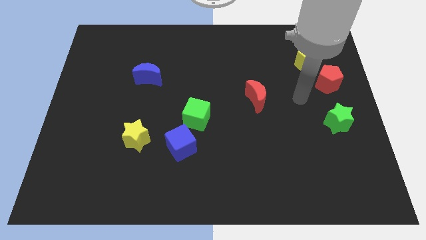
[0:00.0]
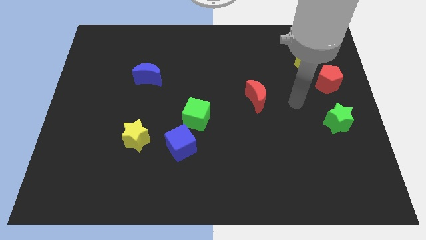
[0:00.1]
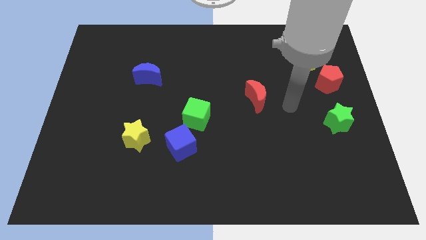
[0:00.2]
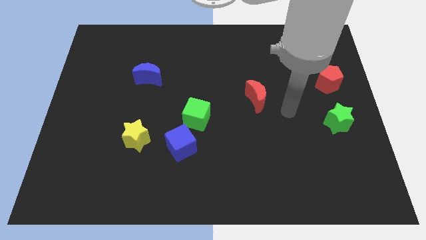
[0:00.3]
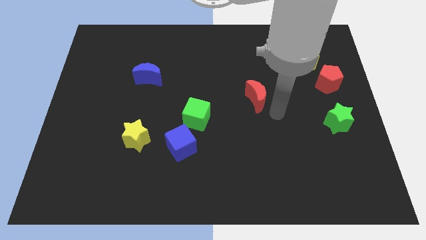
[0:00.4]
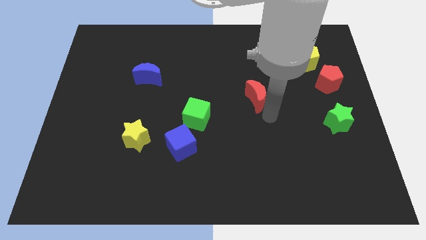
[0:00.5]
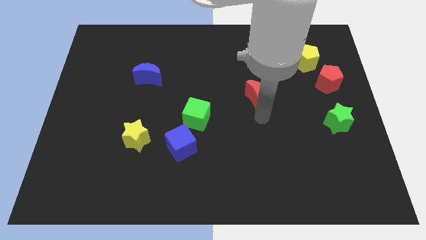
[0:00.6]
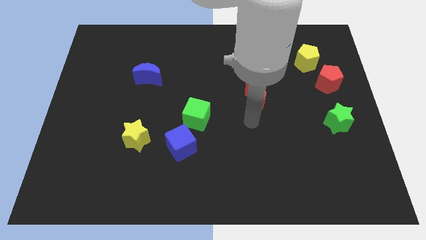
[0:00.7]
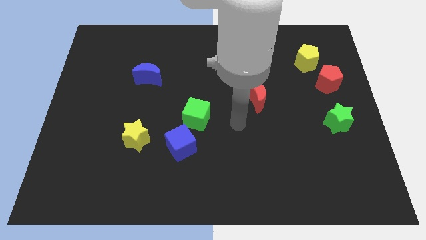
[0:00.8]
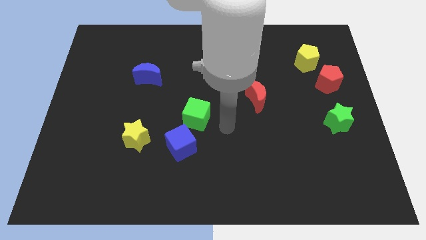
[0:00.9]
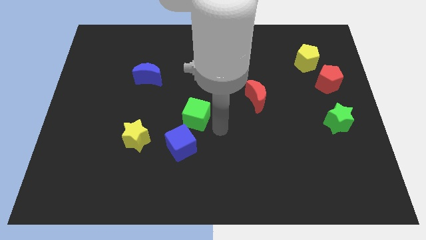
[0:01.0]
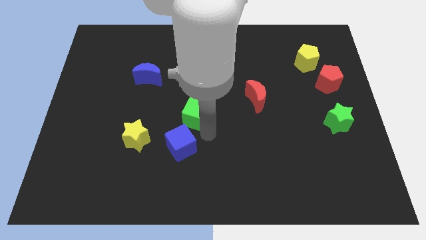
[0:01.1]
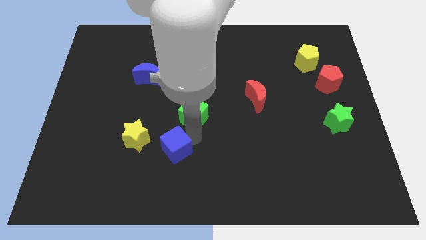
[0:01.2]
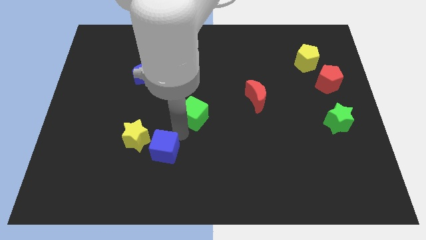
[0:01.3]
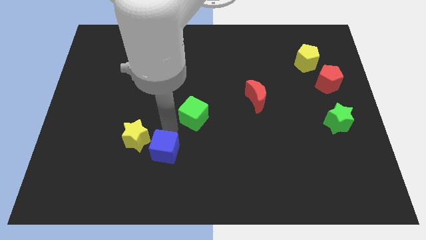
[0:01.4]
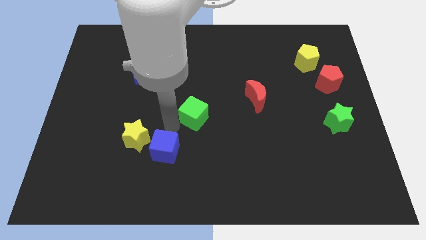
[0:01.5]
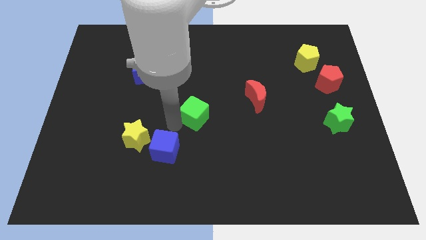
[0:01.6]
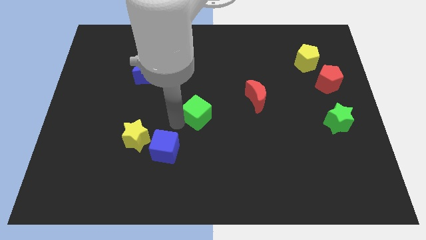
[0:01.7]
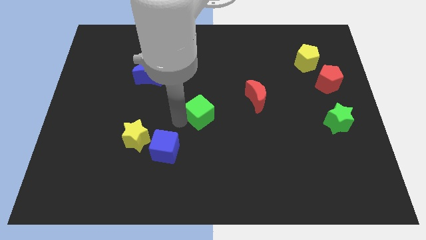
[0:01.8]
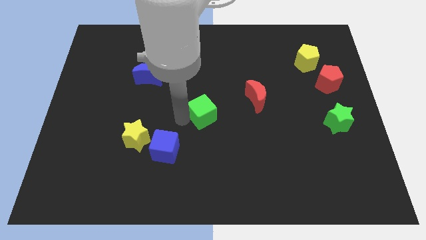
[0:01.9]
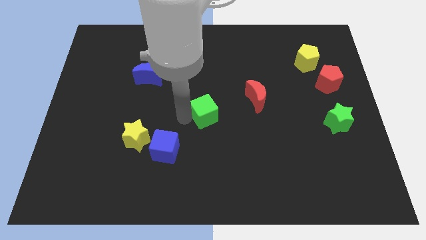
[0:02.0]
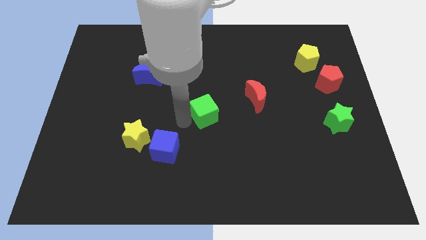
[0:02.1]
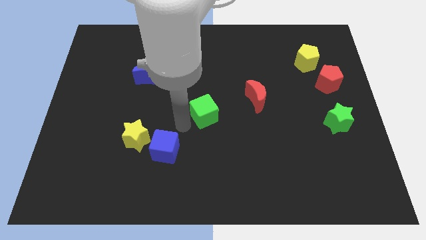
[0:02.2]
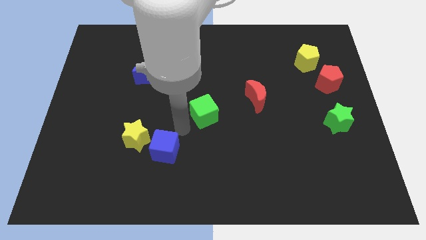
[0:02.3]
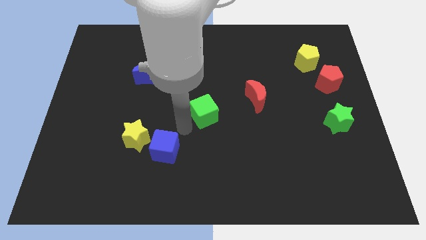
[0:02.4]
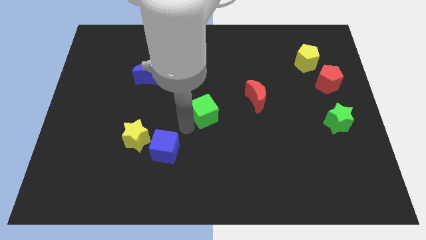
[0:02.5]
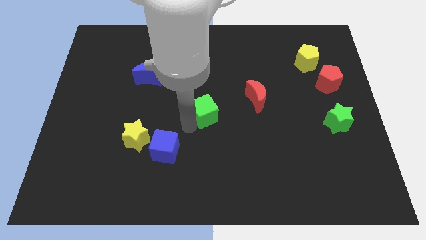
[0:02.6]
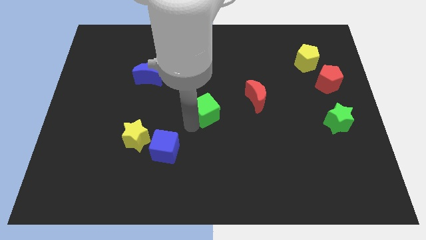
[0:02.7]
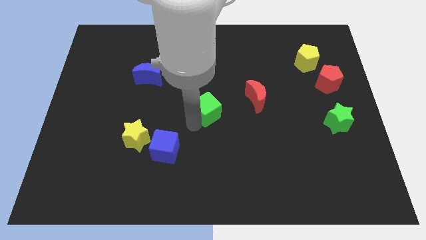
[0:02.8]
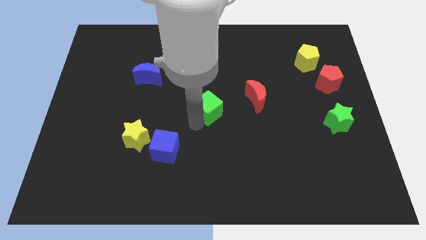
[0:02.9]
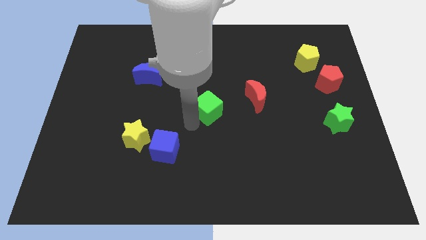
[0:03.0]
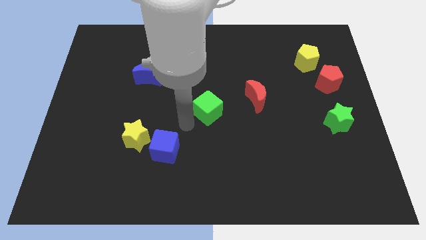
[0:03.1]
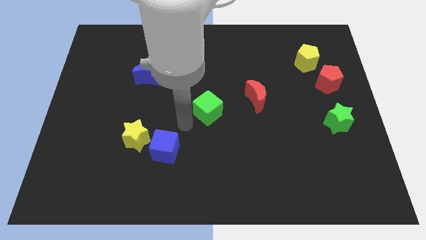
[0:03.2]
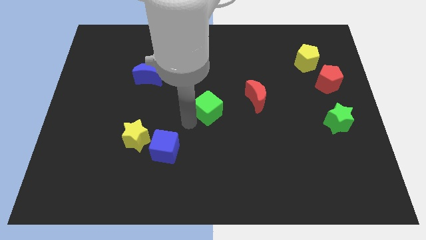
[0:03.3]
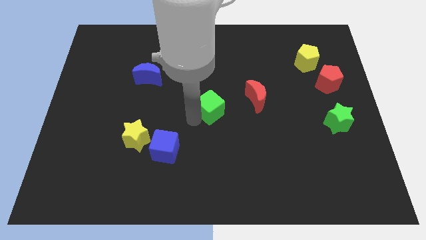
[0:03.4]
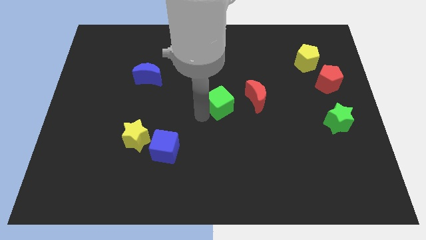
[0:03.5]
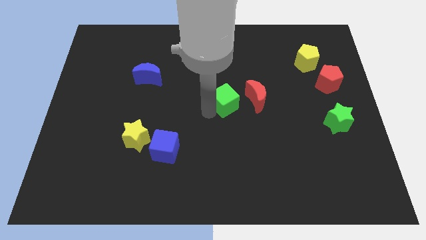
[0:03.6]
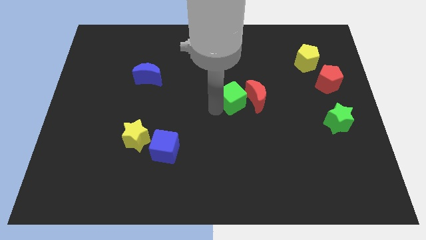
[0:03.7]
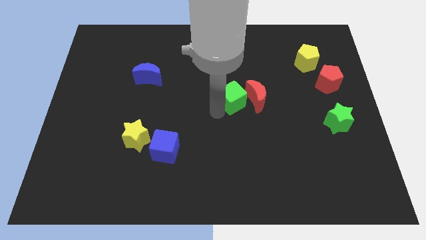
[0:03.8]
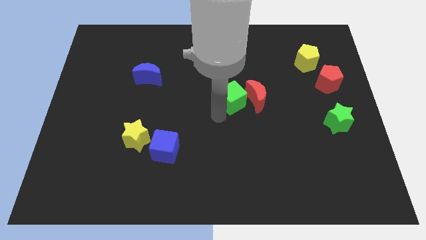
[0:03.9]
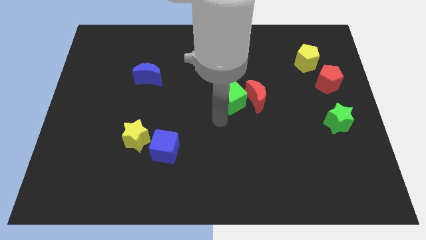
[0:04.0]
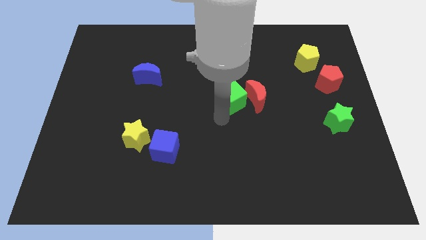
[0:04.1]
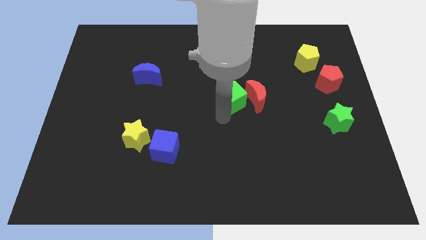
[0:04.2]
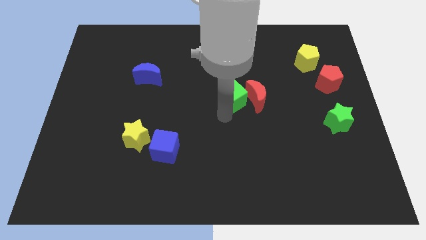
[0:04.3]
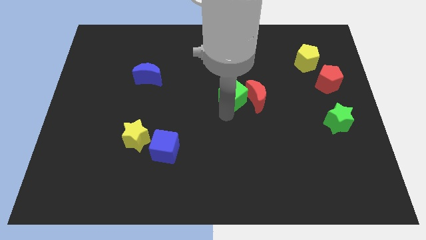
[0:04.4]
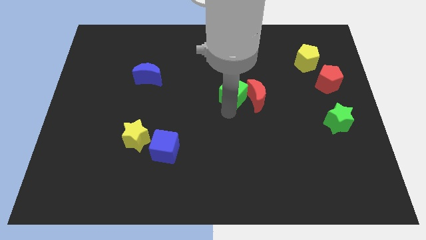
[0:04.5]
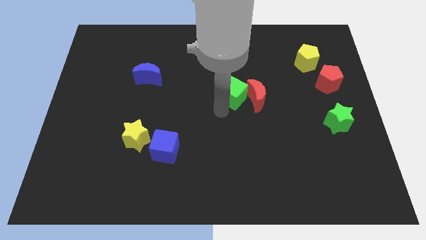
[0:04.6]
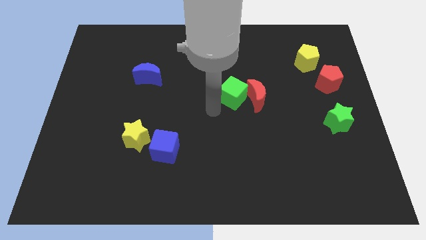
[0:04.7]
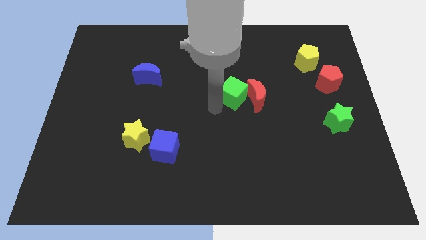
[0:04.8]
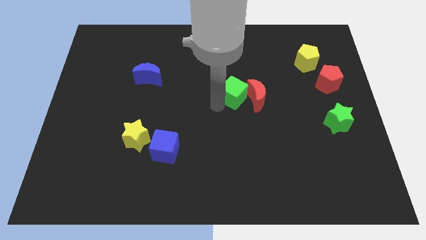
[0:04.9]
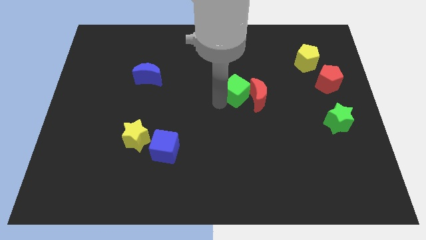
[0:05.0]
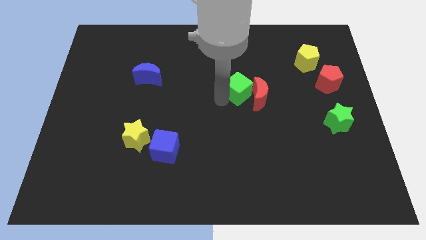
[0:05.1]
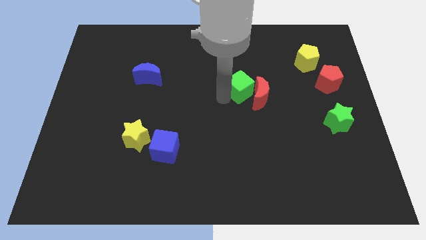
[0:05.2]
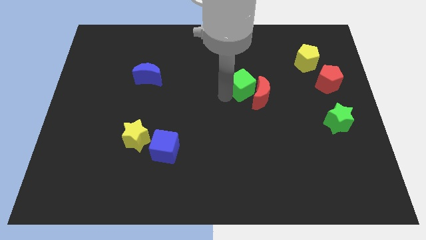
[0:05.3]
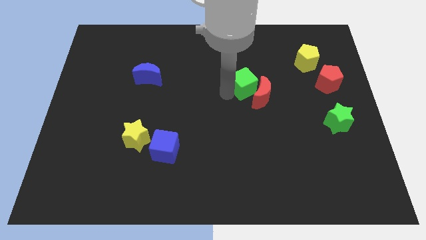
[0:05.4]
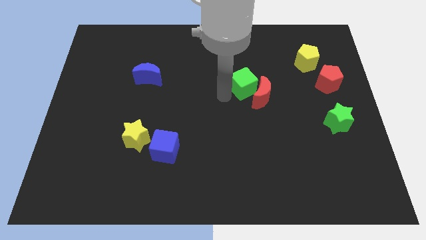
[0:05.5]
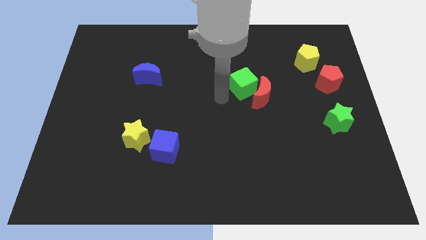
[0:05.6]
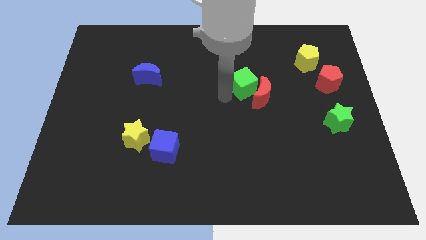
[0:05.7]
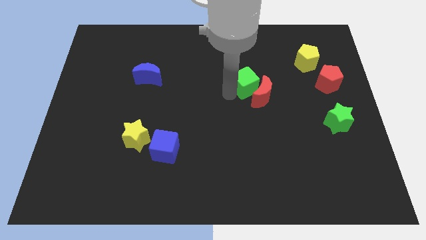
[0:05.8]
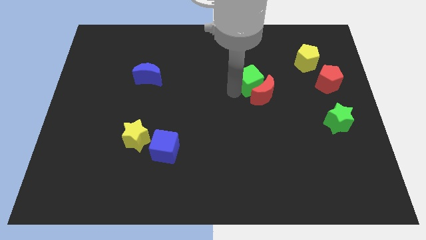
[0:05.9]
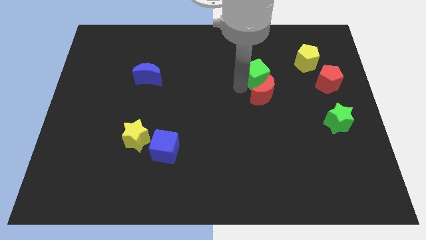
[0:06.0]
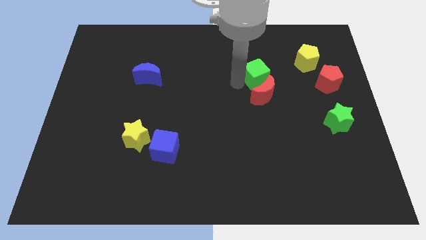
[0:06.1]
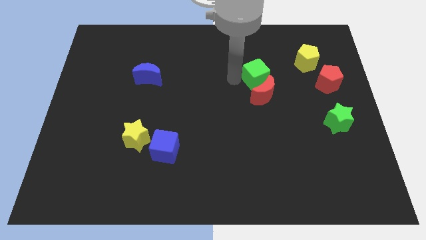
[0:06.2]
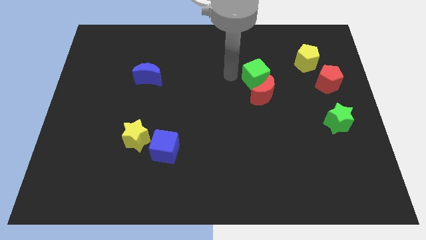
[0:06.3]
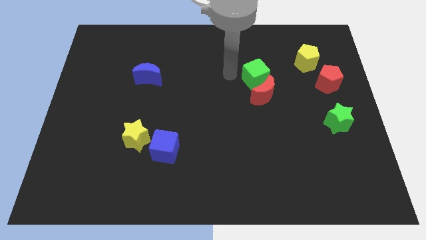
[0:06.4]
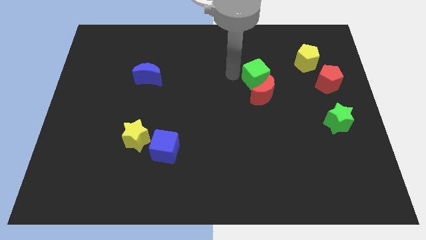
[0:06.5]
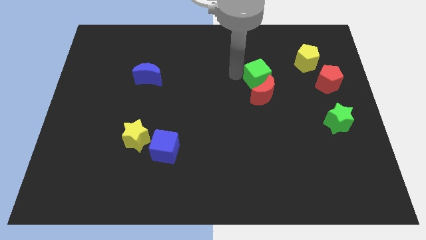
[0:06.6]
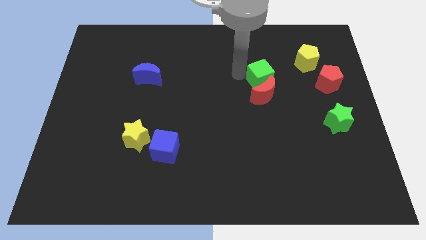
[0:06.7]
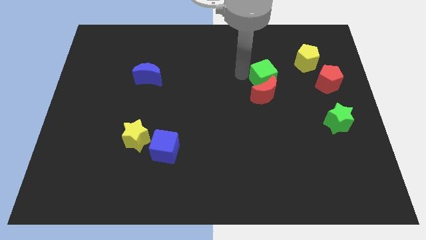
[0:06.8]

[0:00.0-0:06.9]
put the green cube to the left of the red pentagon

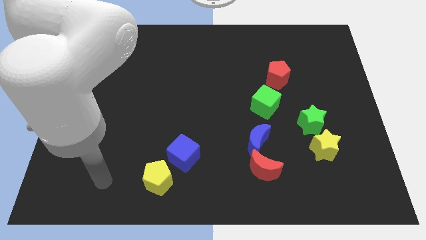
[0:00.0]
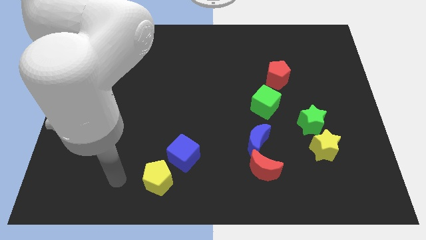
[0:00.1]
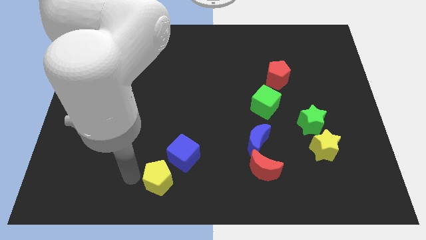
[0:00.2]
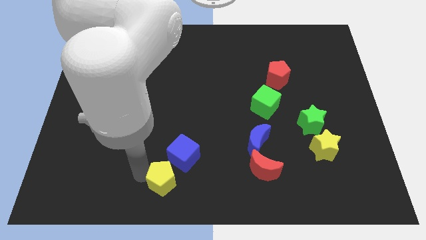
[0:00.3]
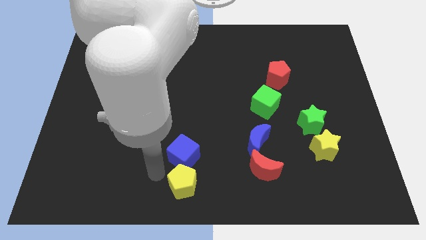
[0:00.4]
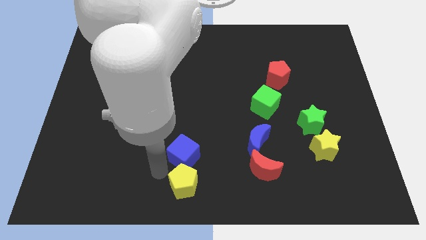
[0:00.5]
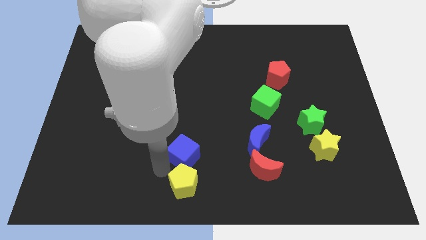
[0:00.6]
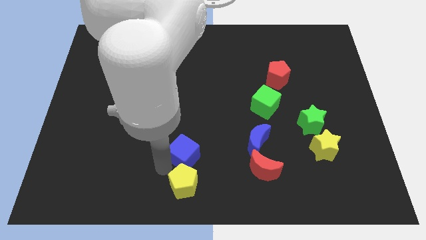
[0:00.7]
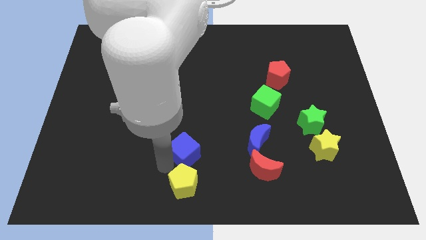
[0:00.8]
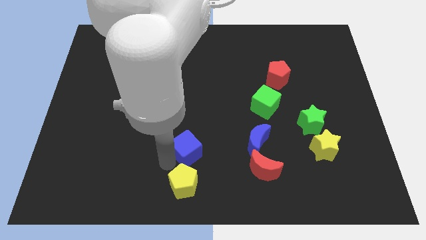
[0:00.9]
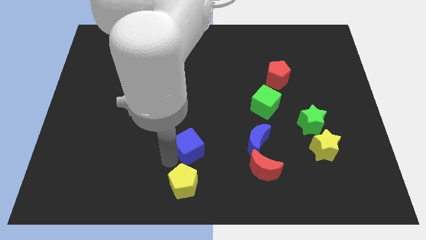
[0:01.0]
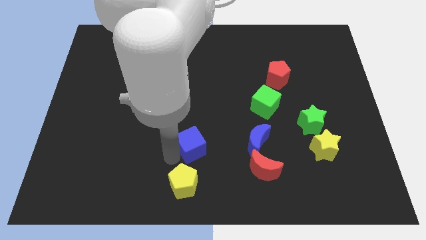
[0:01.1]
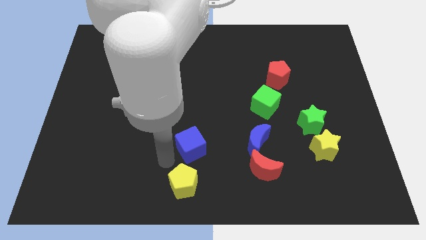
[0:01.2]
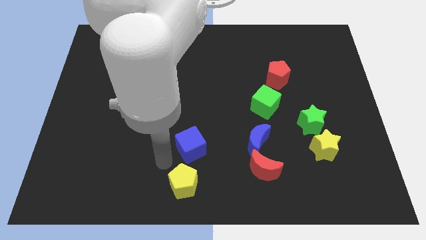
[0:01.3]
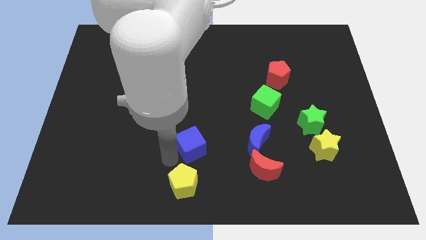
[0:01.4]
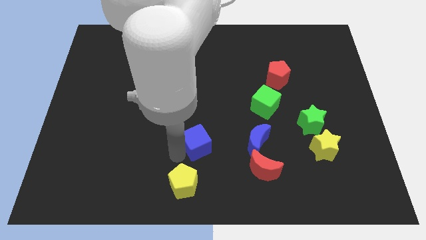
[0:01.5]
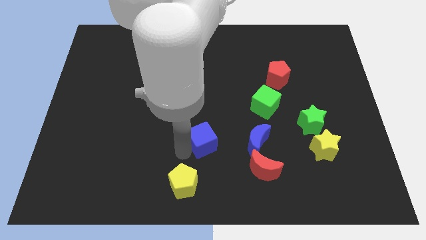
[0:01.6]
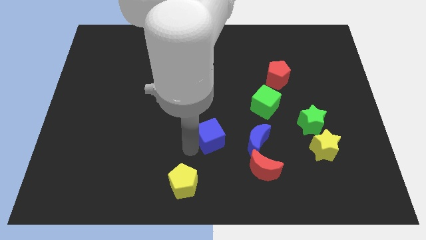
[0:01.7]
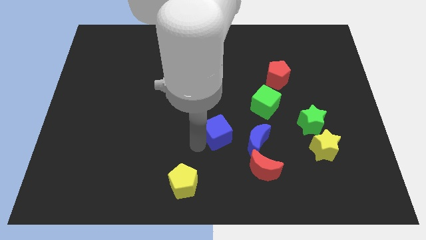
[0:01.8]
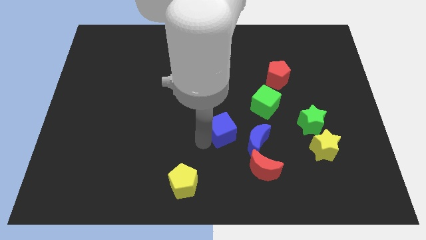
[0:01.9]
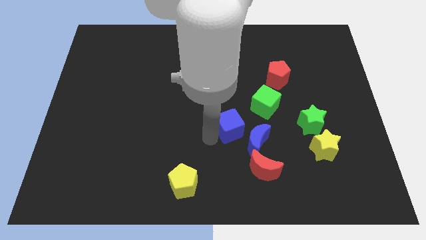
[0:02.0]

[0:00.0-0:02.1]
put the blue cube diagonally down and to the left of the green cube
